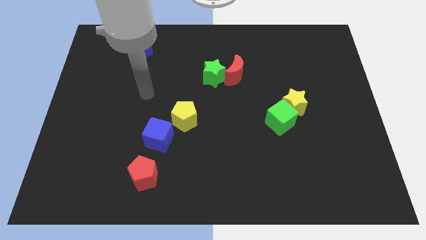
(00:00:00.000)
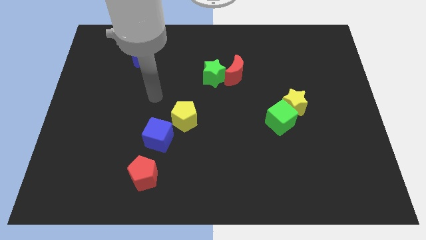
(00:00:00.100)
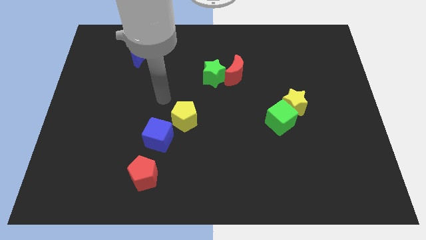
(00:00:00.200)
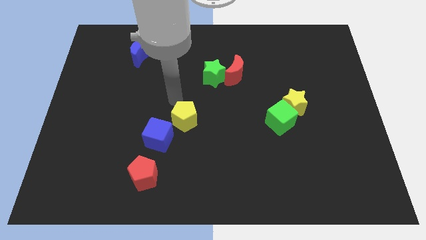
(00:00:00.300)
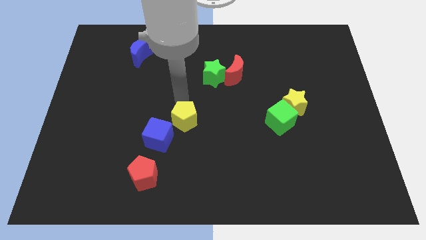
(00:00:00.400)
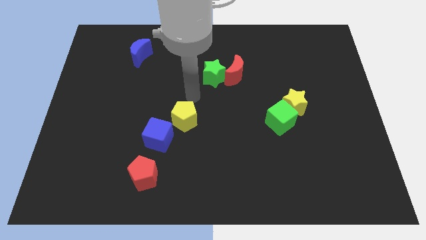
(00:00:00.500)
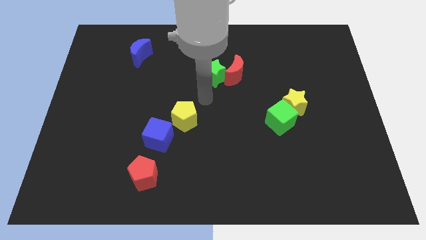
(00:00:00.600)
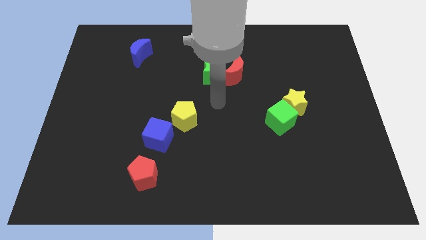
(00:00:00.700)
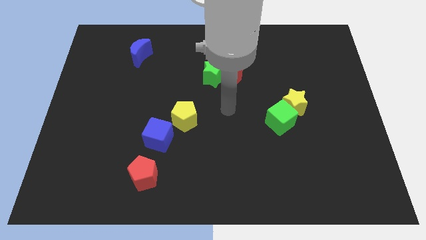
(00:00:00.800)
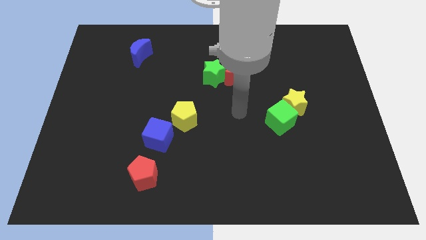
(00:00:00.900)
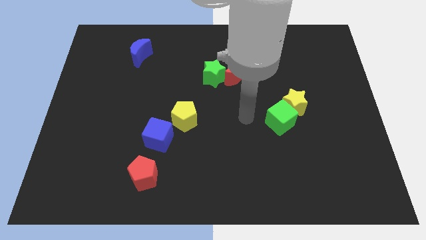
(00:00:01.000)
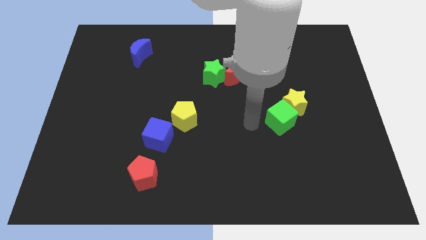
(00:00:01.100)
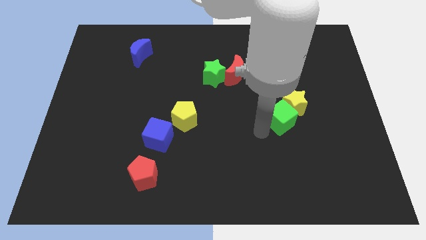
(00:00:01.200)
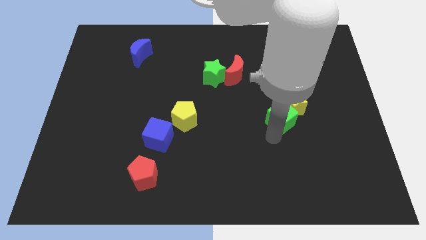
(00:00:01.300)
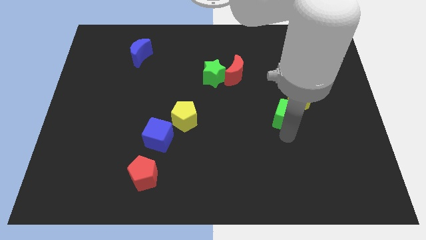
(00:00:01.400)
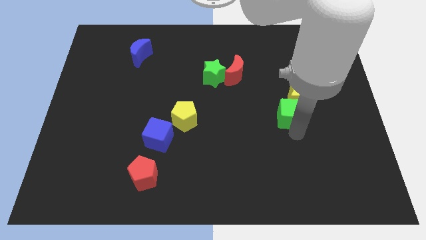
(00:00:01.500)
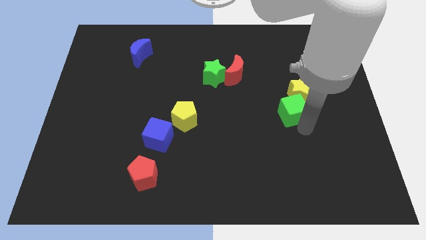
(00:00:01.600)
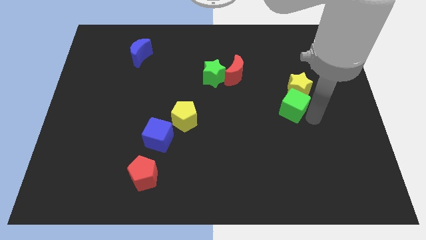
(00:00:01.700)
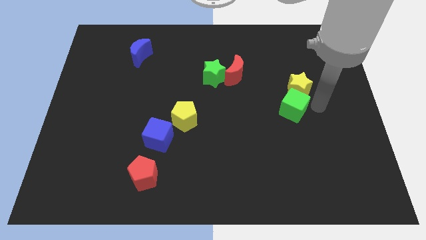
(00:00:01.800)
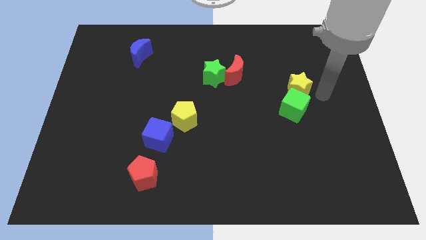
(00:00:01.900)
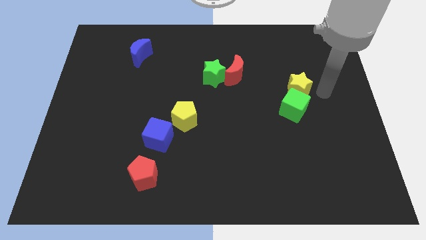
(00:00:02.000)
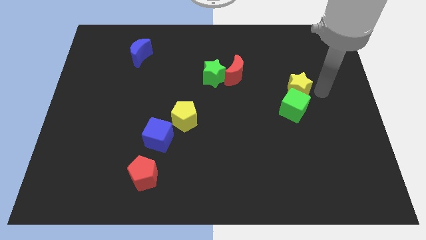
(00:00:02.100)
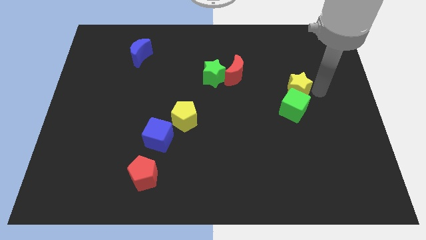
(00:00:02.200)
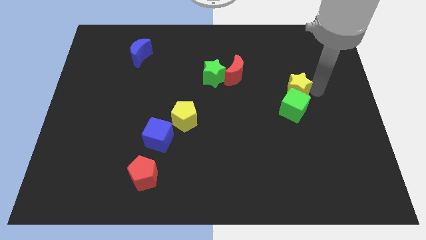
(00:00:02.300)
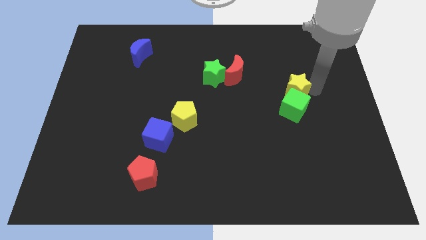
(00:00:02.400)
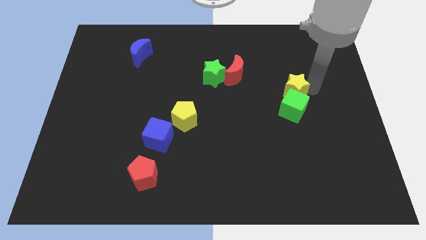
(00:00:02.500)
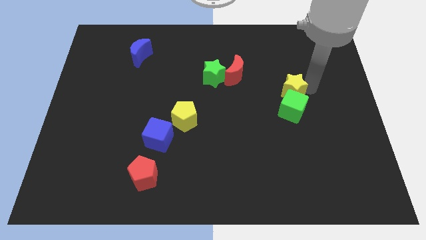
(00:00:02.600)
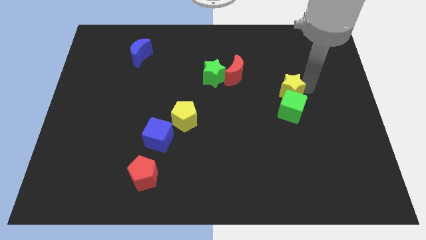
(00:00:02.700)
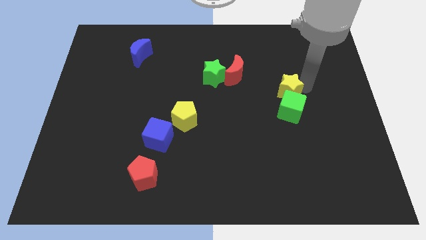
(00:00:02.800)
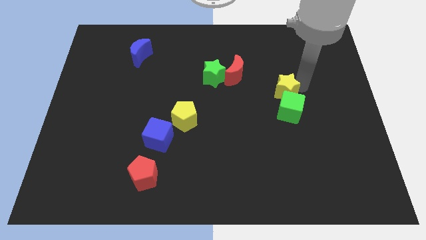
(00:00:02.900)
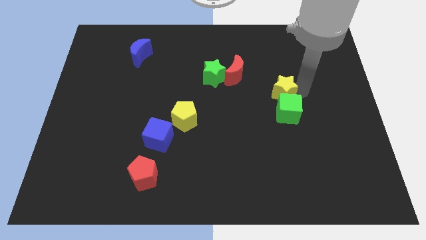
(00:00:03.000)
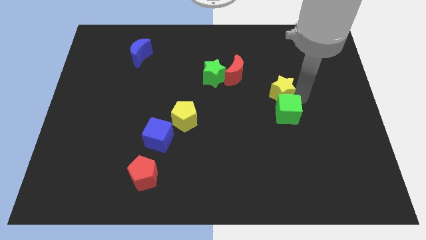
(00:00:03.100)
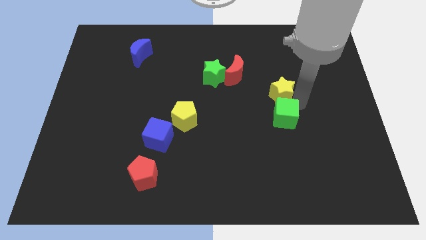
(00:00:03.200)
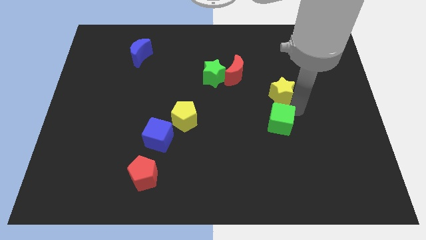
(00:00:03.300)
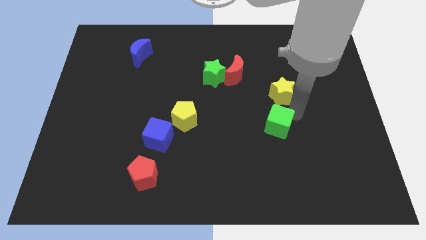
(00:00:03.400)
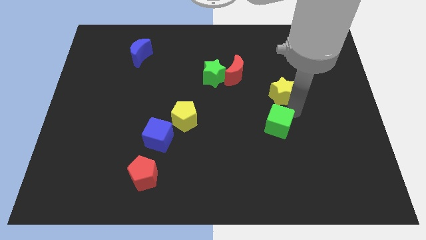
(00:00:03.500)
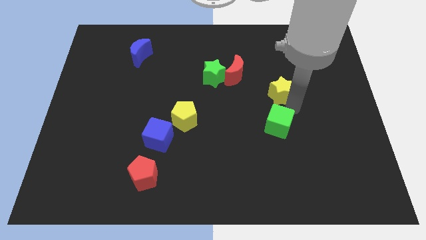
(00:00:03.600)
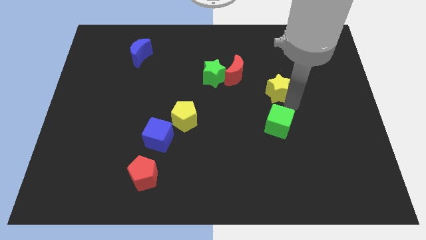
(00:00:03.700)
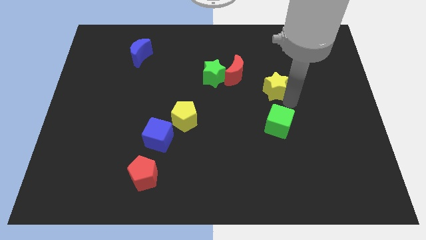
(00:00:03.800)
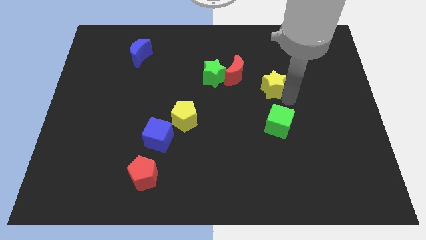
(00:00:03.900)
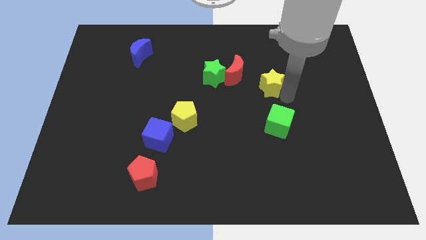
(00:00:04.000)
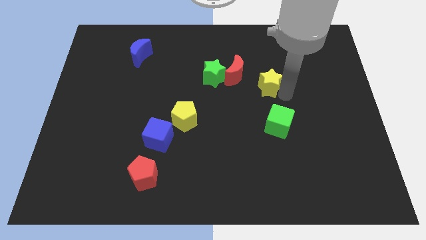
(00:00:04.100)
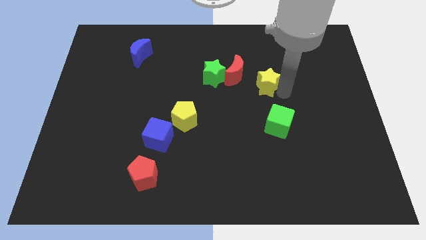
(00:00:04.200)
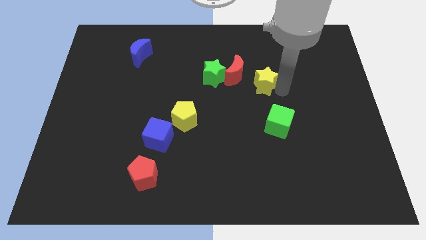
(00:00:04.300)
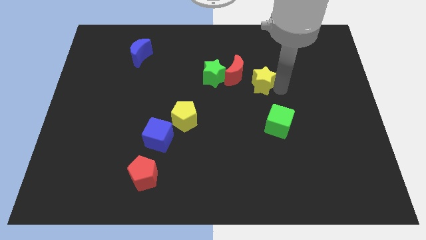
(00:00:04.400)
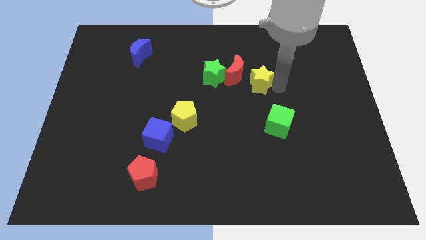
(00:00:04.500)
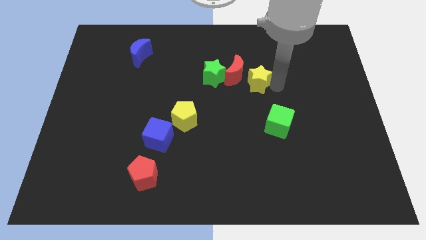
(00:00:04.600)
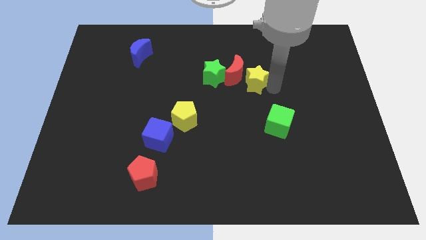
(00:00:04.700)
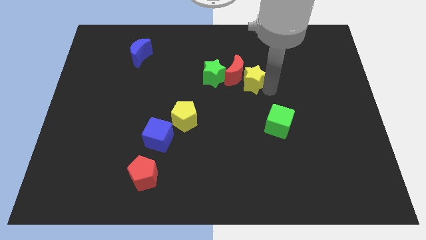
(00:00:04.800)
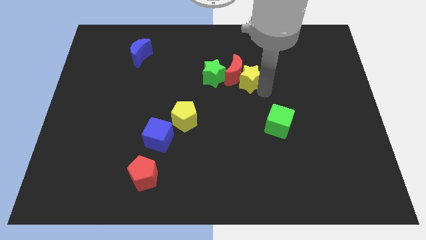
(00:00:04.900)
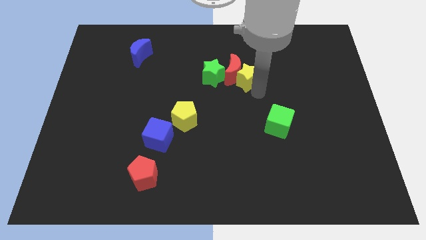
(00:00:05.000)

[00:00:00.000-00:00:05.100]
push the yellow star to the top right side of the red moon
